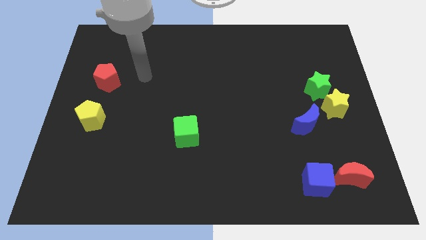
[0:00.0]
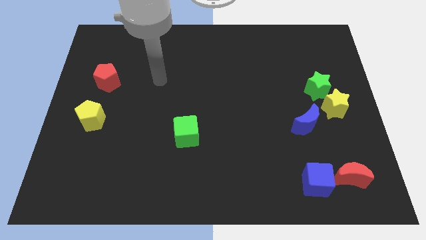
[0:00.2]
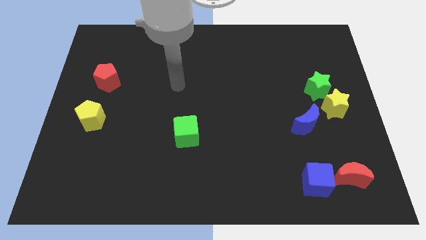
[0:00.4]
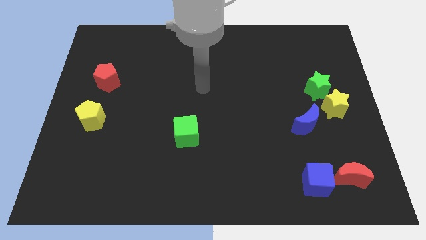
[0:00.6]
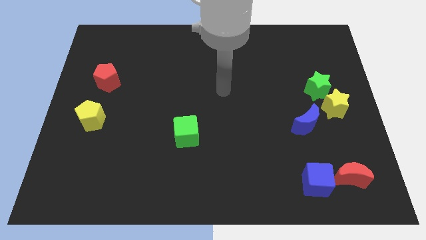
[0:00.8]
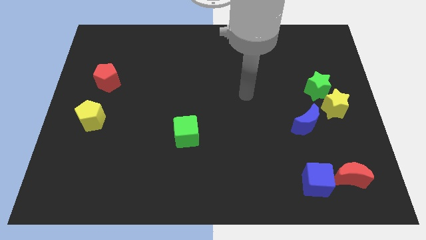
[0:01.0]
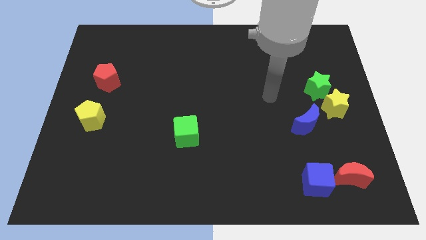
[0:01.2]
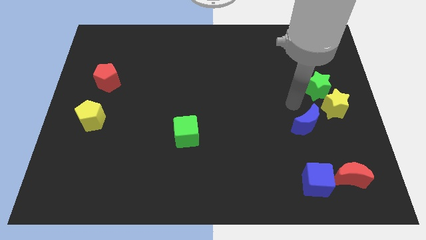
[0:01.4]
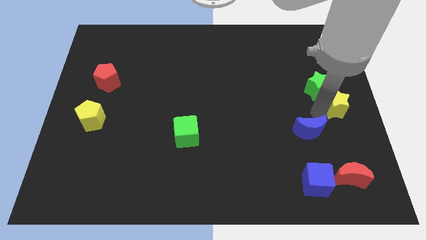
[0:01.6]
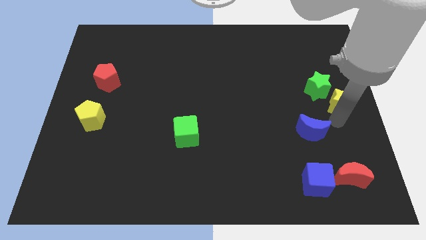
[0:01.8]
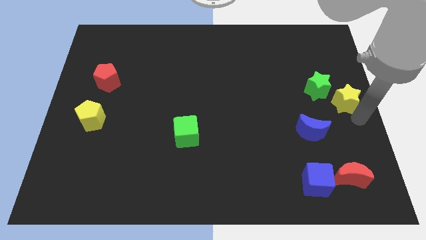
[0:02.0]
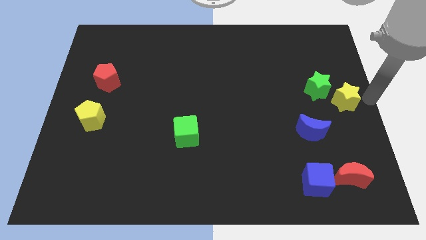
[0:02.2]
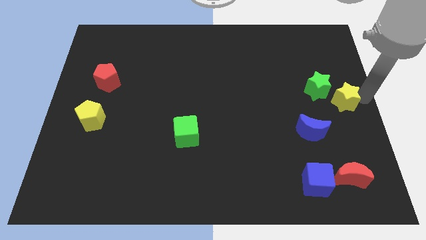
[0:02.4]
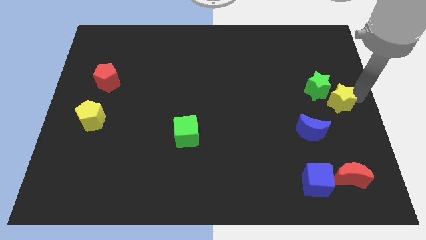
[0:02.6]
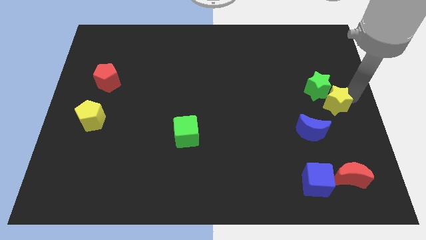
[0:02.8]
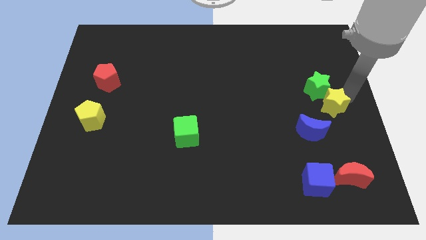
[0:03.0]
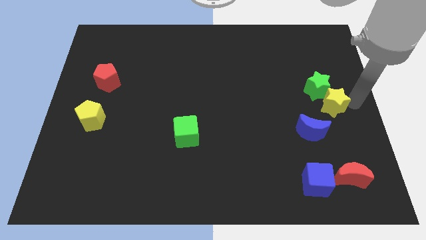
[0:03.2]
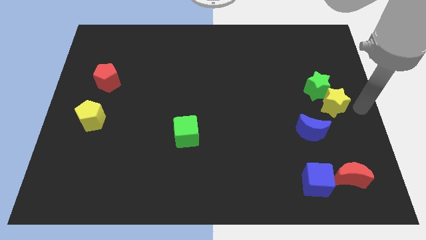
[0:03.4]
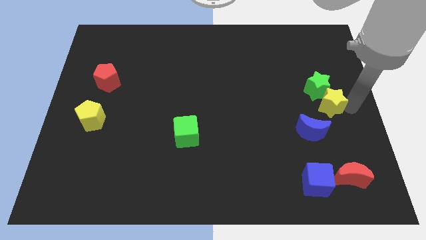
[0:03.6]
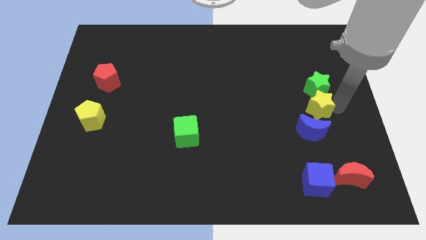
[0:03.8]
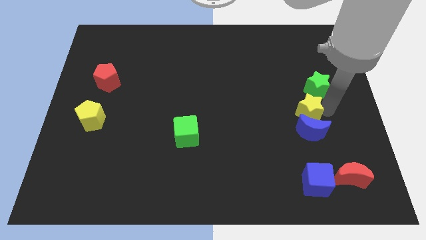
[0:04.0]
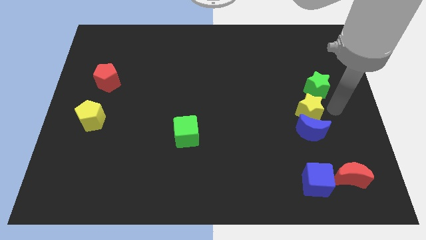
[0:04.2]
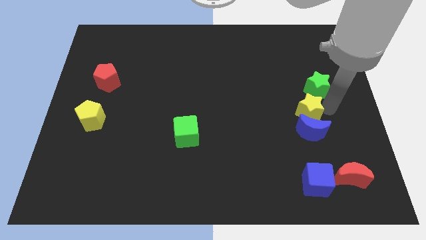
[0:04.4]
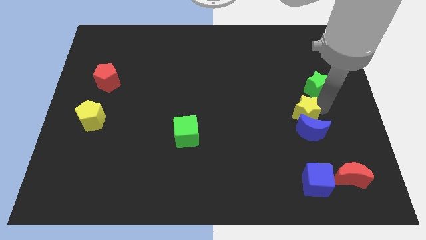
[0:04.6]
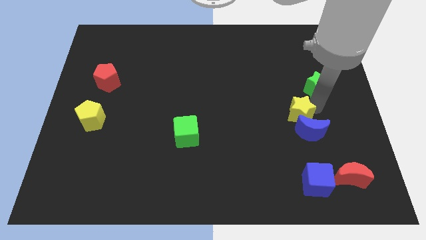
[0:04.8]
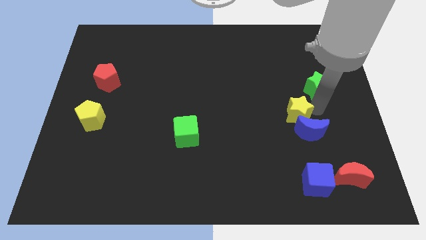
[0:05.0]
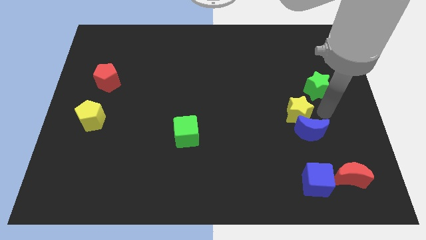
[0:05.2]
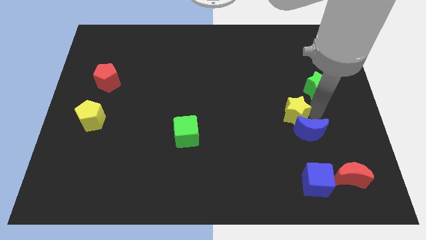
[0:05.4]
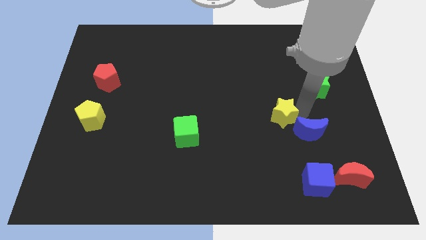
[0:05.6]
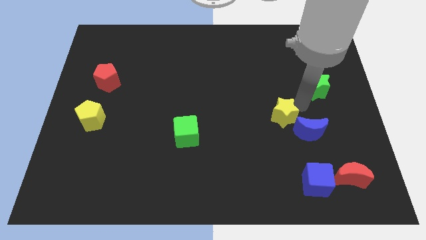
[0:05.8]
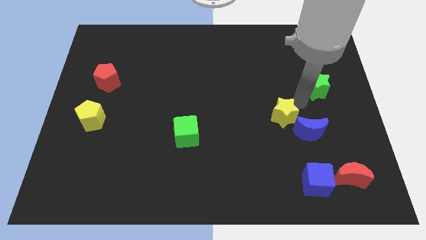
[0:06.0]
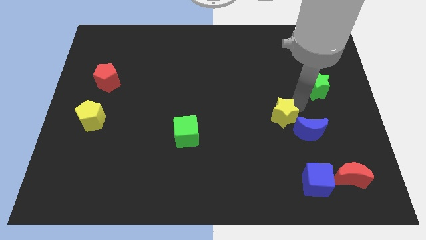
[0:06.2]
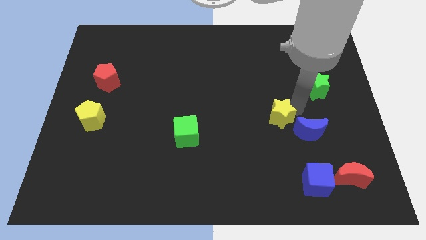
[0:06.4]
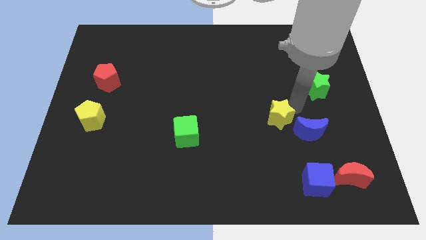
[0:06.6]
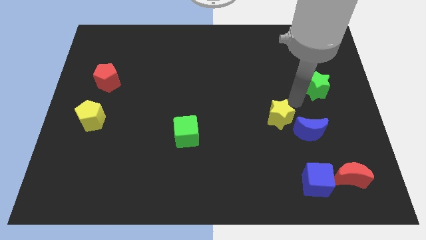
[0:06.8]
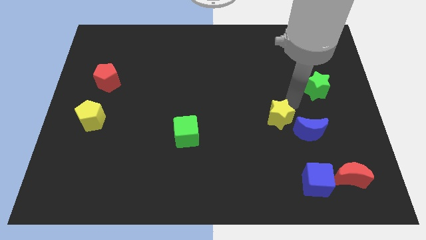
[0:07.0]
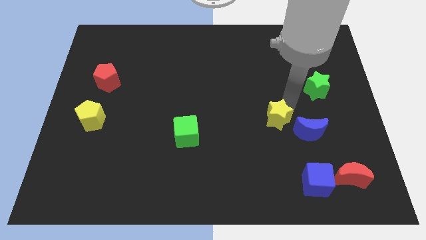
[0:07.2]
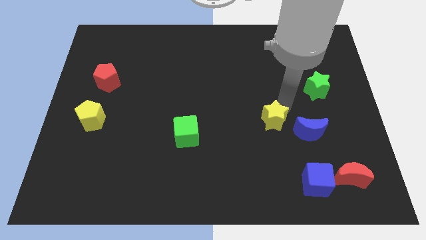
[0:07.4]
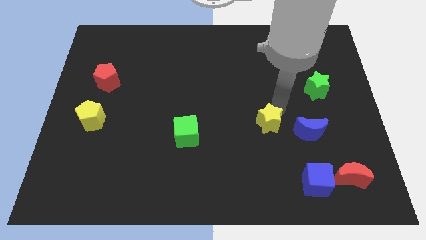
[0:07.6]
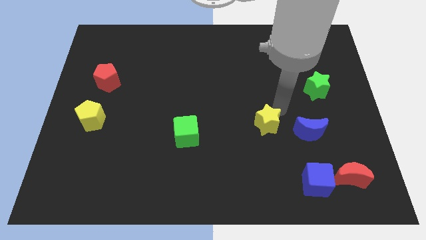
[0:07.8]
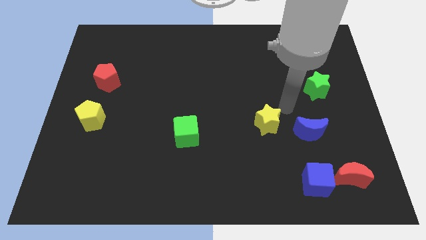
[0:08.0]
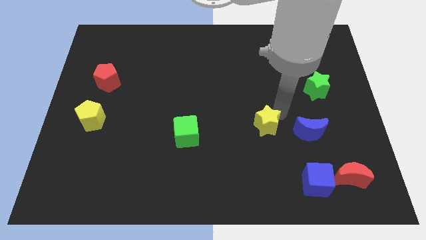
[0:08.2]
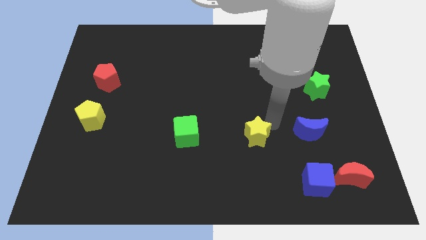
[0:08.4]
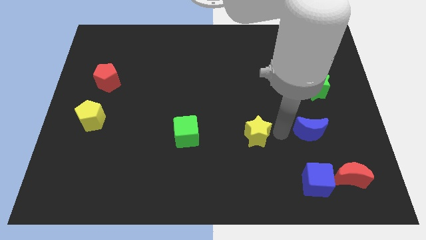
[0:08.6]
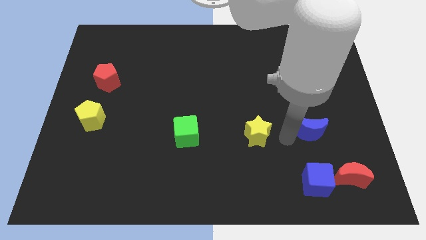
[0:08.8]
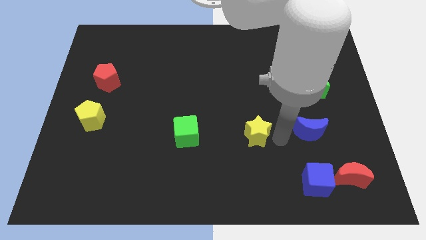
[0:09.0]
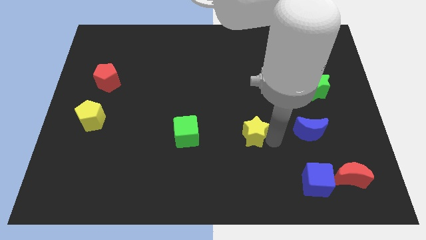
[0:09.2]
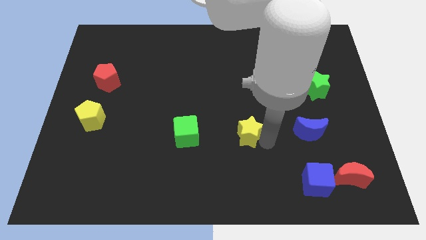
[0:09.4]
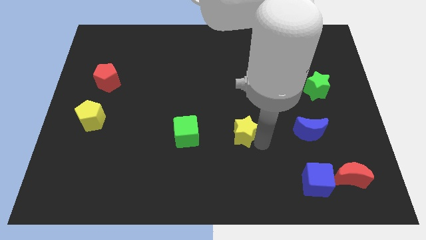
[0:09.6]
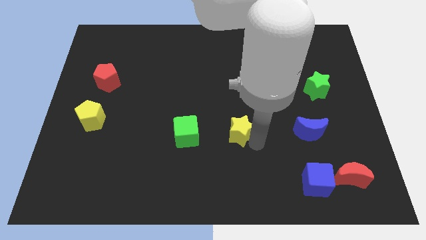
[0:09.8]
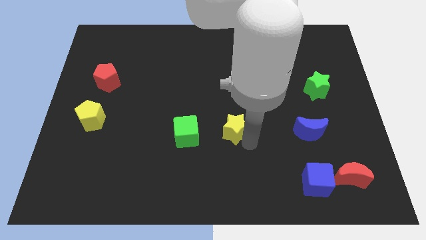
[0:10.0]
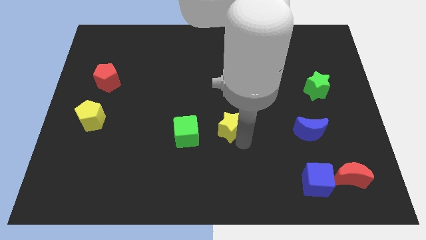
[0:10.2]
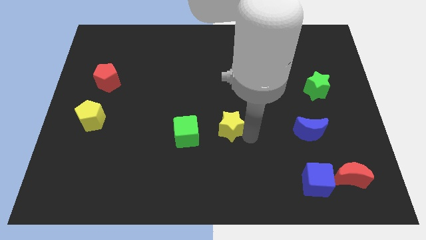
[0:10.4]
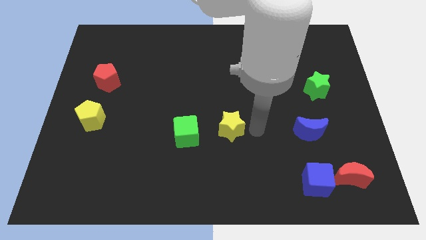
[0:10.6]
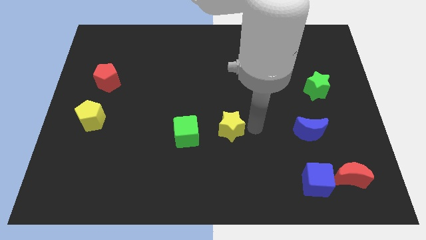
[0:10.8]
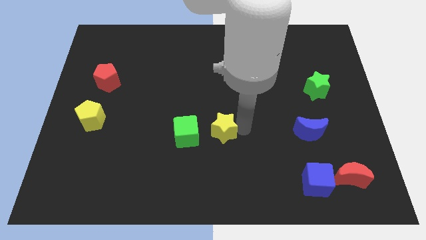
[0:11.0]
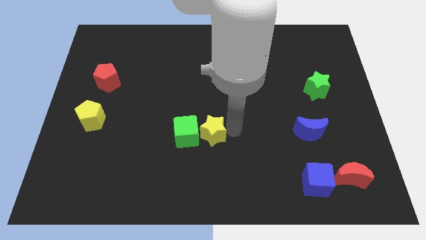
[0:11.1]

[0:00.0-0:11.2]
slide the yellow star towards the green cube

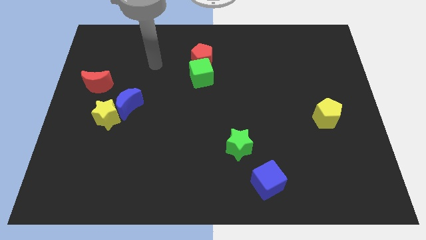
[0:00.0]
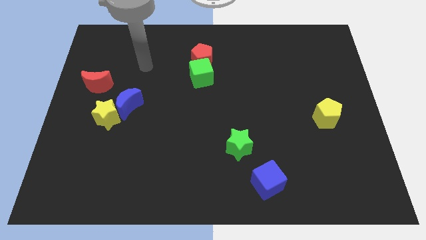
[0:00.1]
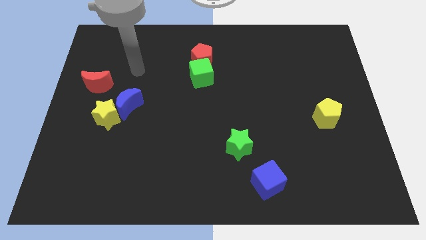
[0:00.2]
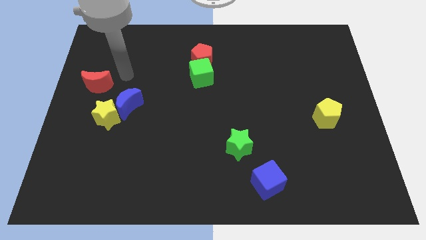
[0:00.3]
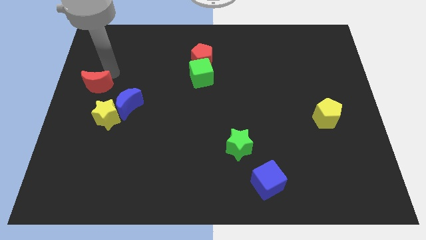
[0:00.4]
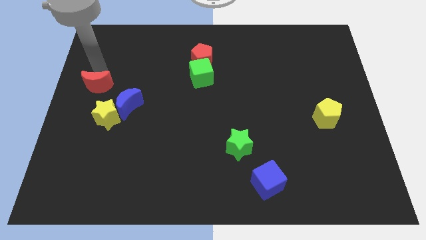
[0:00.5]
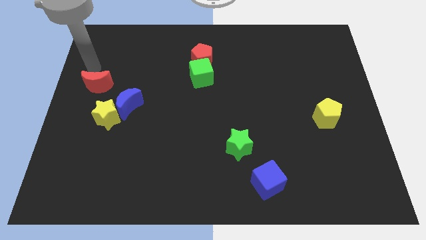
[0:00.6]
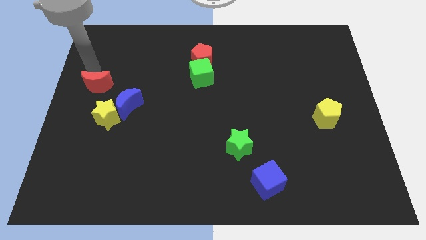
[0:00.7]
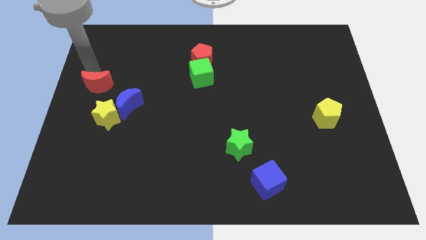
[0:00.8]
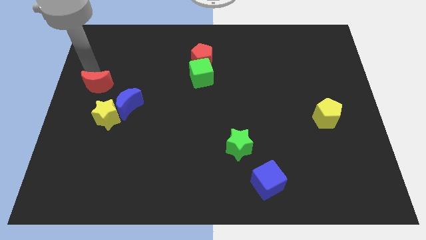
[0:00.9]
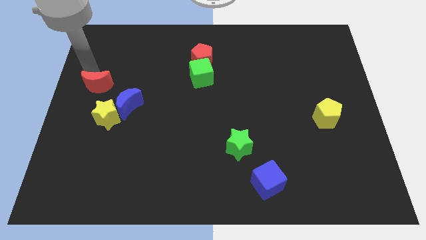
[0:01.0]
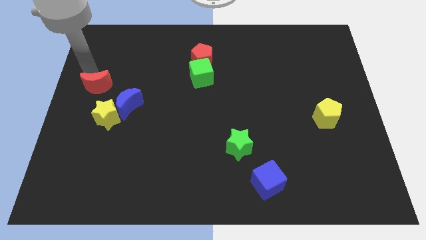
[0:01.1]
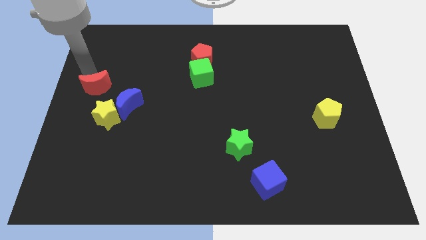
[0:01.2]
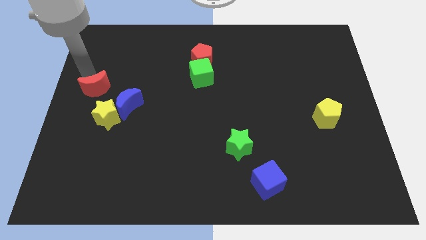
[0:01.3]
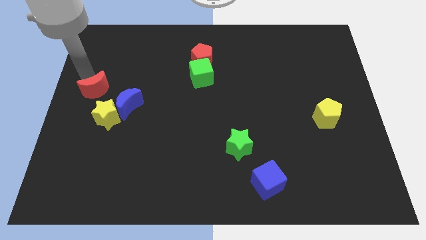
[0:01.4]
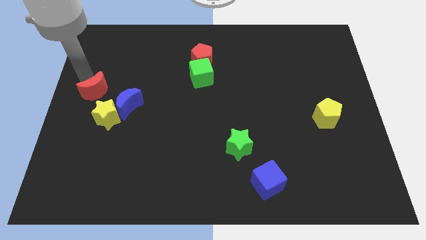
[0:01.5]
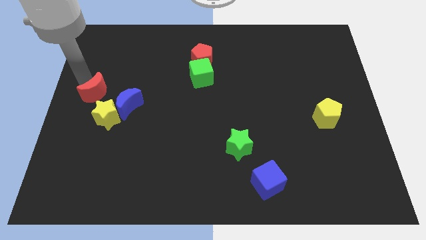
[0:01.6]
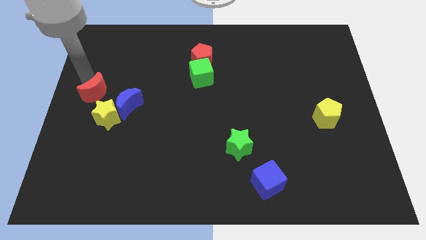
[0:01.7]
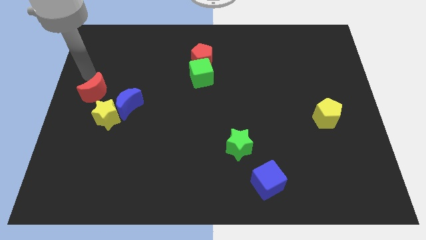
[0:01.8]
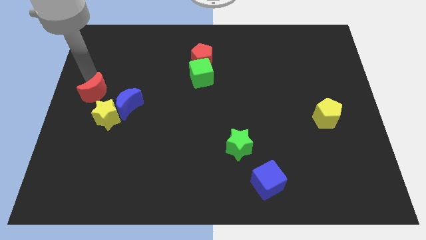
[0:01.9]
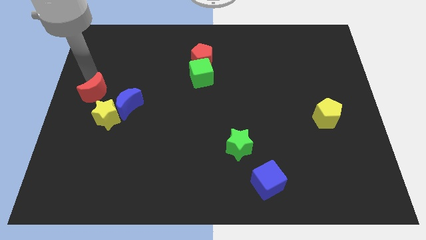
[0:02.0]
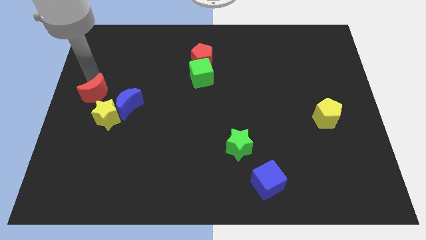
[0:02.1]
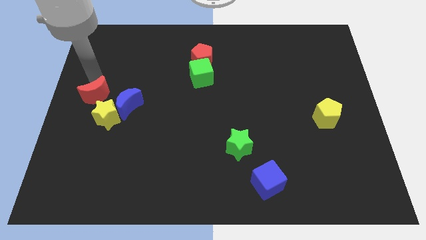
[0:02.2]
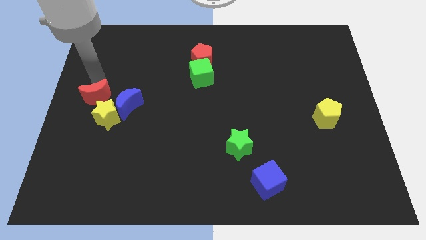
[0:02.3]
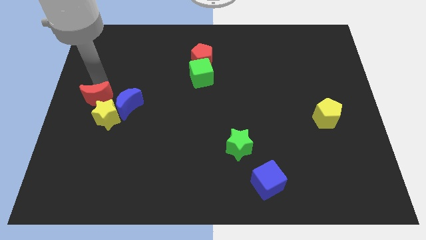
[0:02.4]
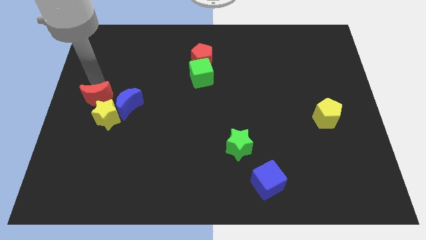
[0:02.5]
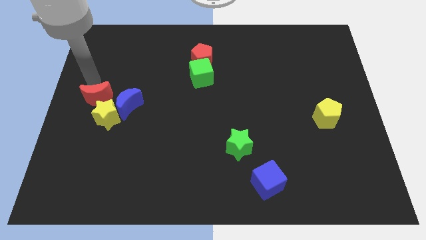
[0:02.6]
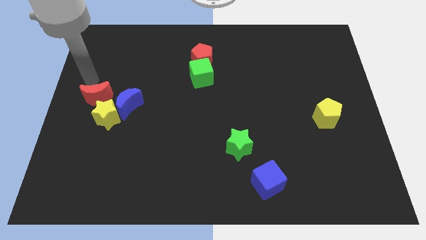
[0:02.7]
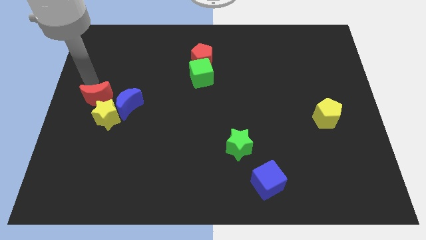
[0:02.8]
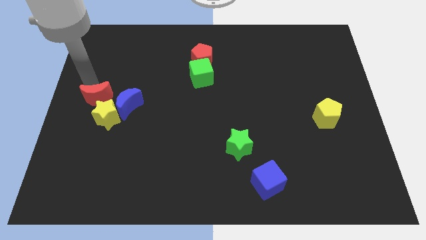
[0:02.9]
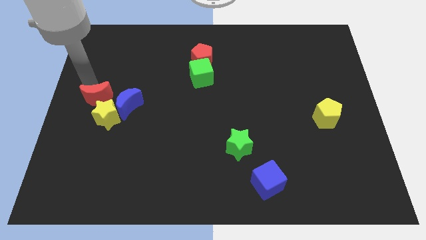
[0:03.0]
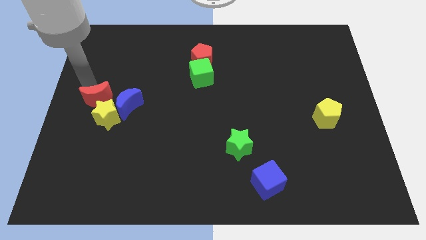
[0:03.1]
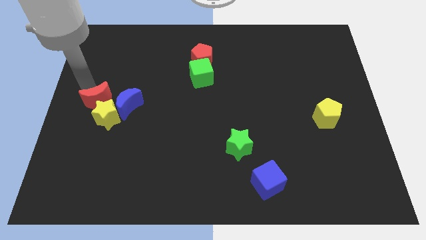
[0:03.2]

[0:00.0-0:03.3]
slide the red moon to the yellow star
